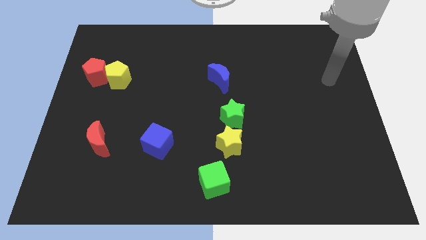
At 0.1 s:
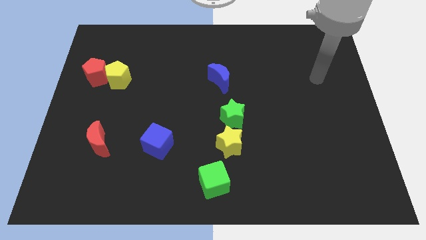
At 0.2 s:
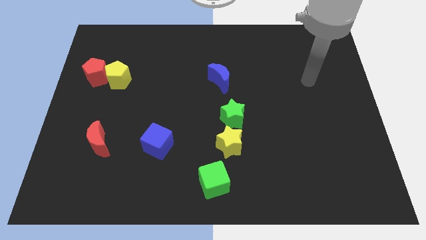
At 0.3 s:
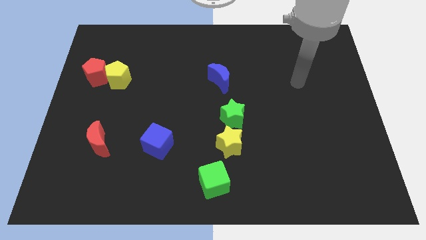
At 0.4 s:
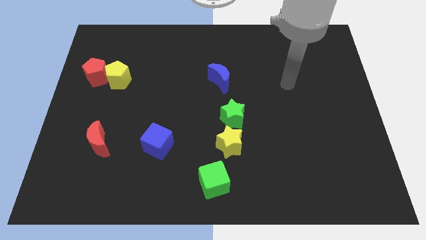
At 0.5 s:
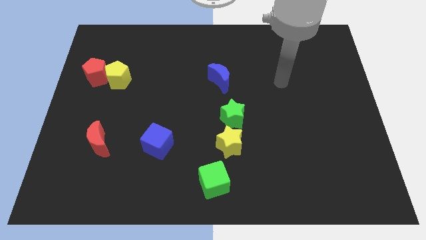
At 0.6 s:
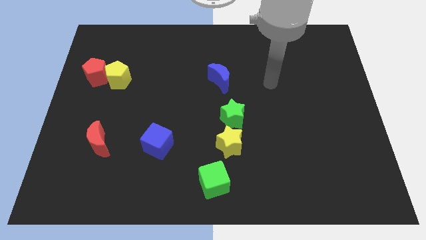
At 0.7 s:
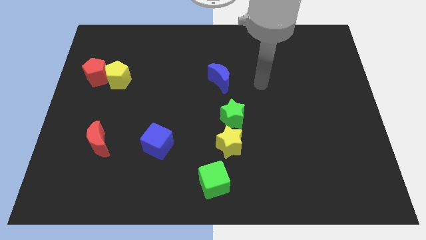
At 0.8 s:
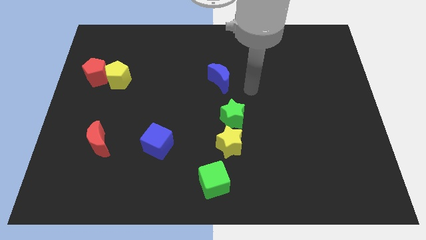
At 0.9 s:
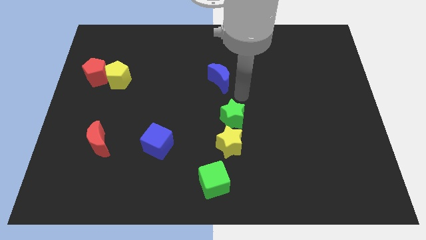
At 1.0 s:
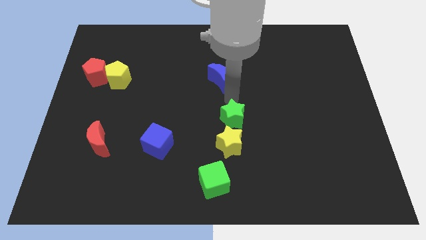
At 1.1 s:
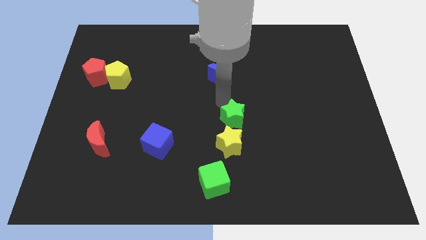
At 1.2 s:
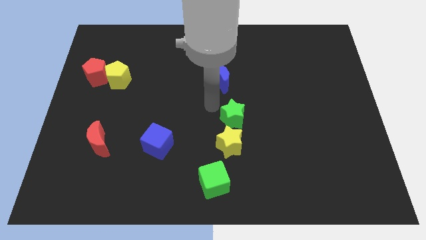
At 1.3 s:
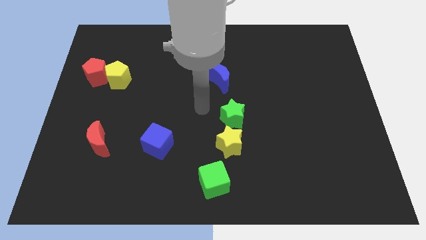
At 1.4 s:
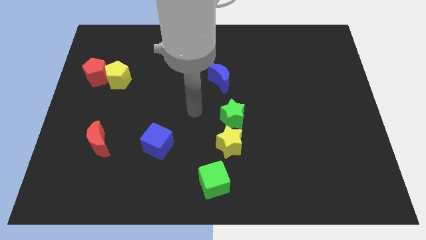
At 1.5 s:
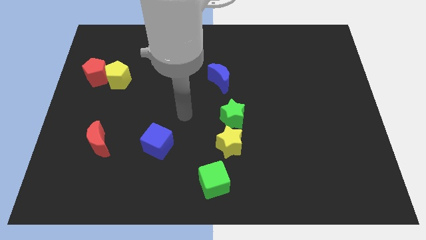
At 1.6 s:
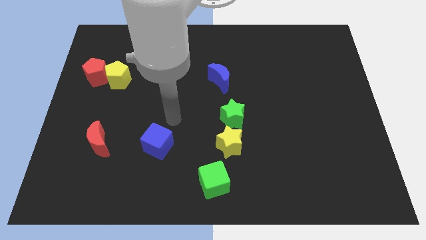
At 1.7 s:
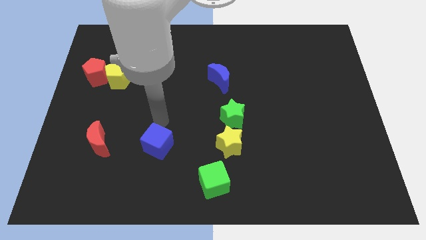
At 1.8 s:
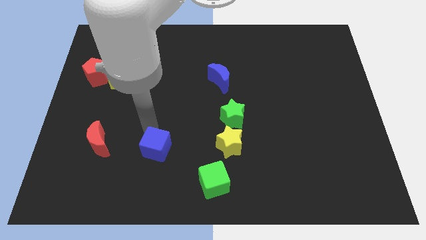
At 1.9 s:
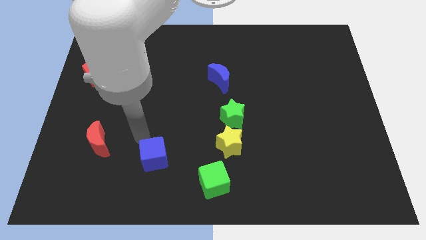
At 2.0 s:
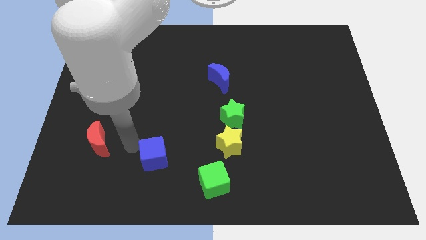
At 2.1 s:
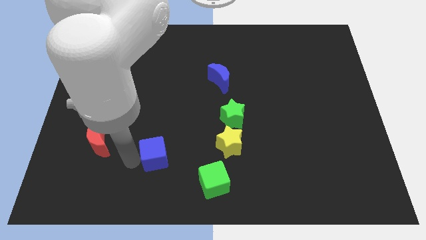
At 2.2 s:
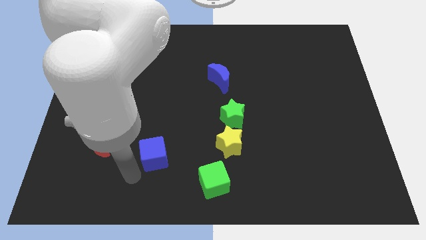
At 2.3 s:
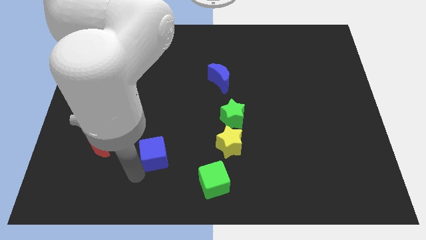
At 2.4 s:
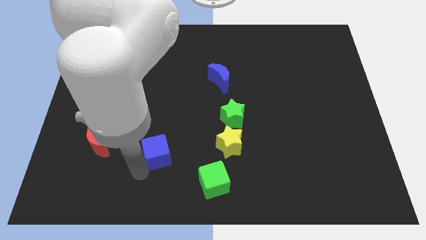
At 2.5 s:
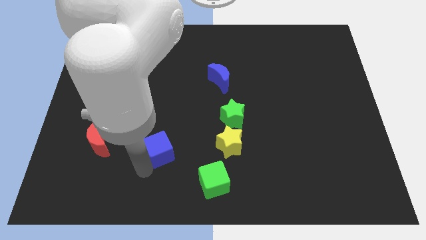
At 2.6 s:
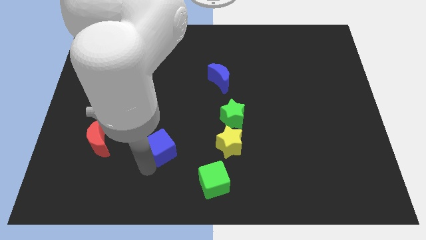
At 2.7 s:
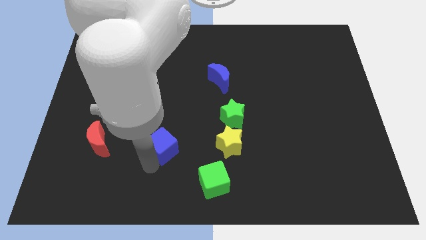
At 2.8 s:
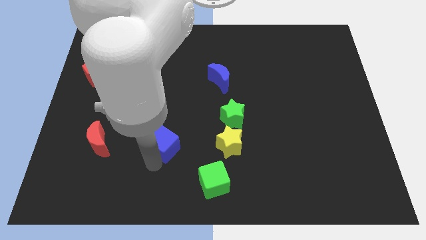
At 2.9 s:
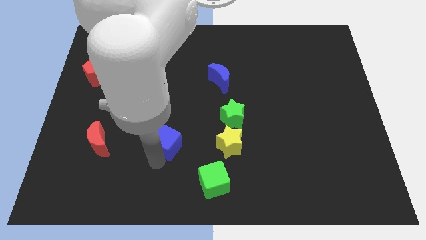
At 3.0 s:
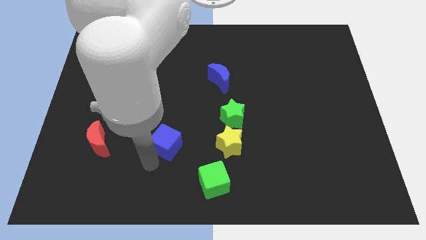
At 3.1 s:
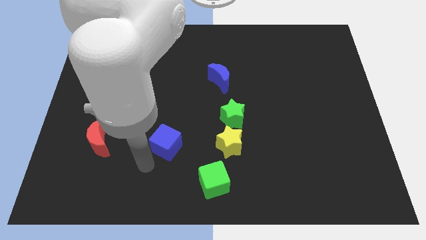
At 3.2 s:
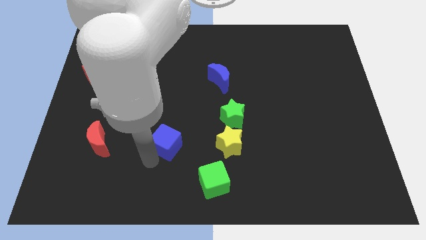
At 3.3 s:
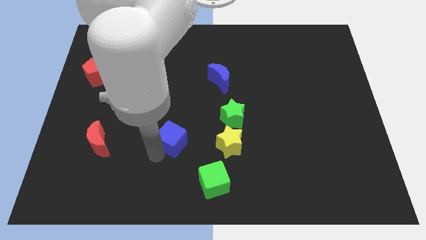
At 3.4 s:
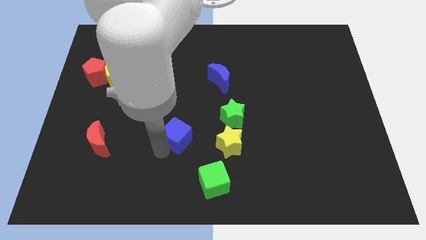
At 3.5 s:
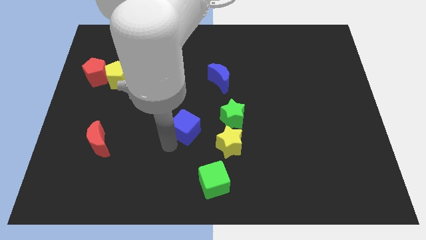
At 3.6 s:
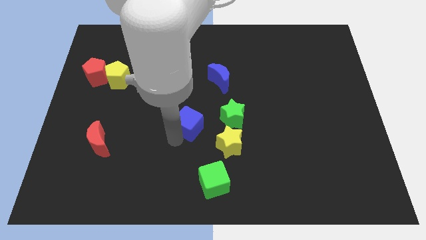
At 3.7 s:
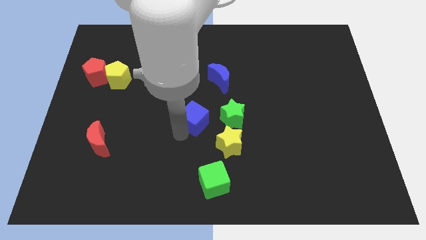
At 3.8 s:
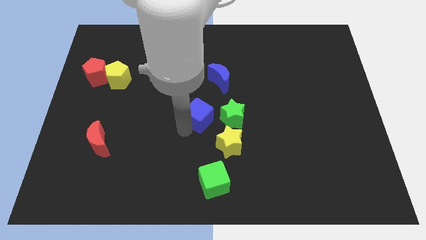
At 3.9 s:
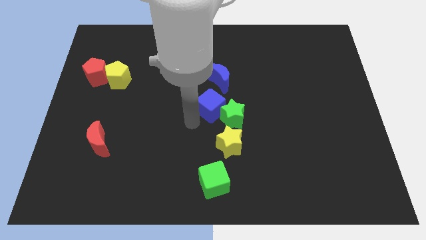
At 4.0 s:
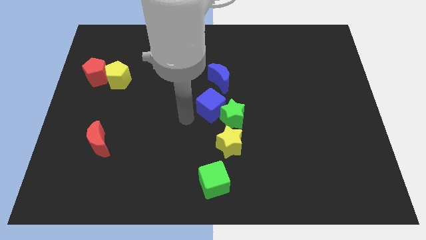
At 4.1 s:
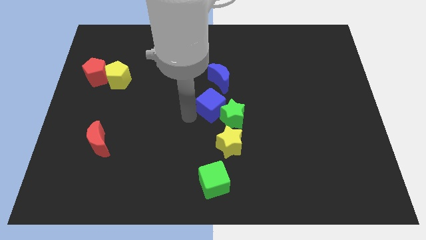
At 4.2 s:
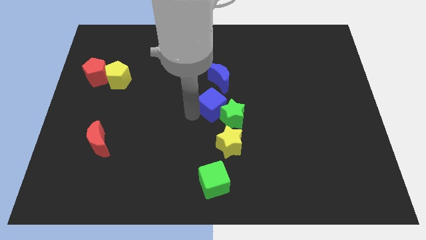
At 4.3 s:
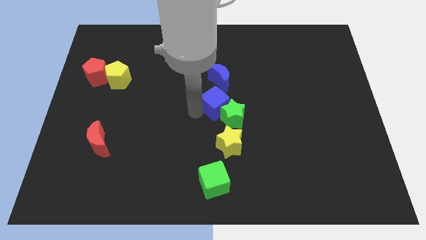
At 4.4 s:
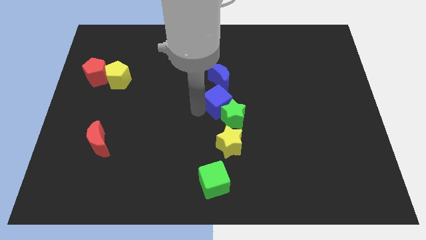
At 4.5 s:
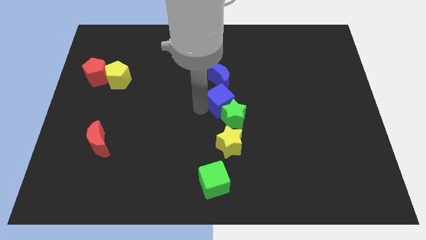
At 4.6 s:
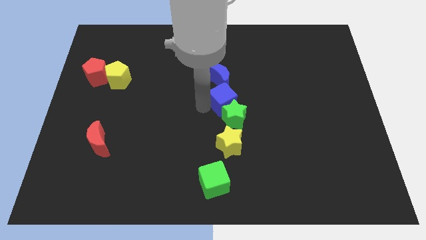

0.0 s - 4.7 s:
move the blue cube diagonally down and to the right of the blue moon

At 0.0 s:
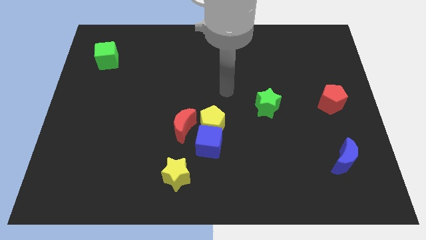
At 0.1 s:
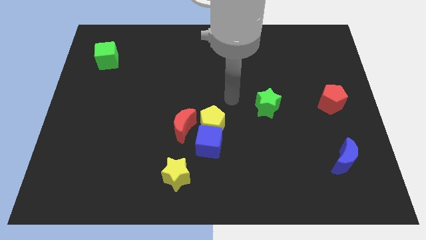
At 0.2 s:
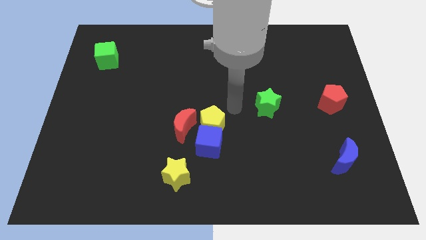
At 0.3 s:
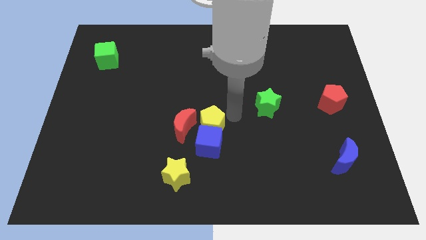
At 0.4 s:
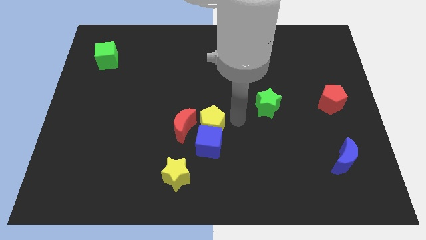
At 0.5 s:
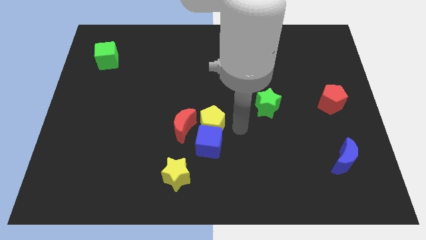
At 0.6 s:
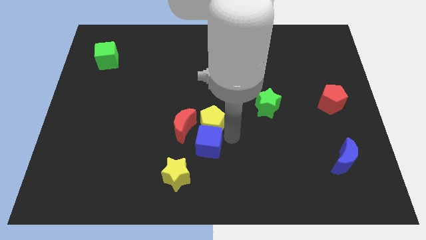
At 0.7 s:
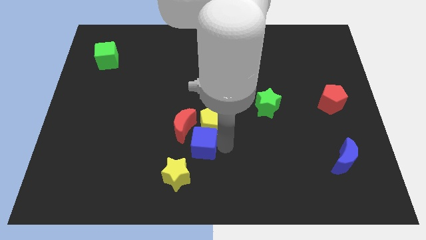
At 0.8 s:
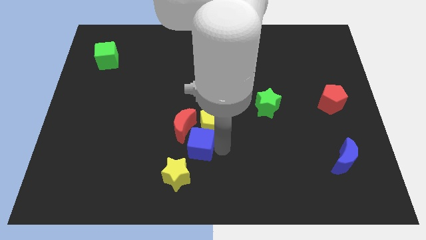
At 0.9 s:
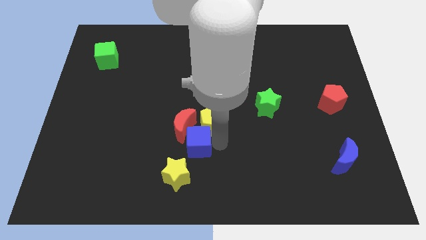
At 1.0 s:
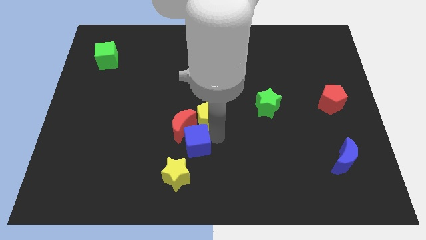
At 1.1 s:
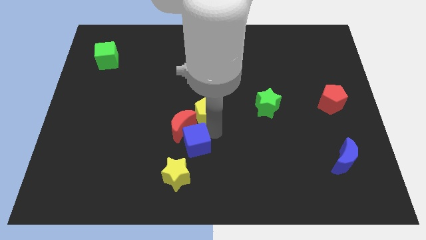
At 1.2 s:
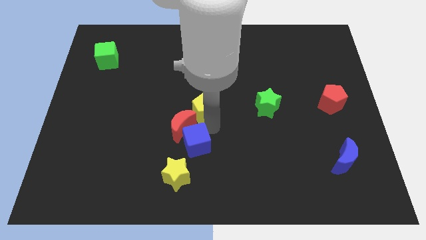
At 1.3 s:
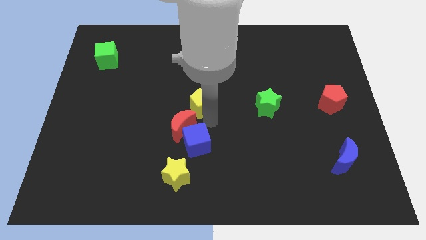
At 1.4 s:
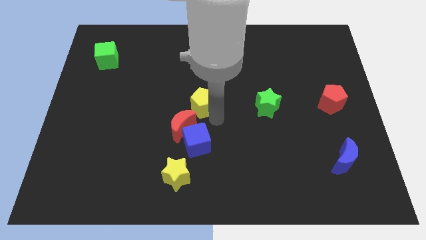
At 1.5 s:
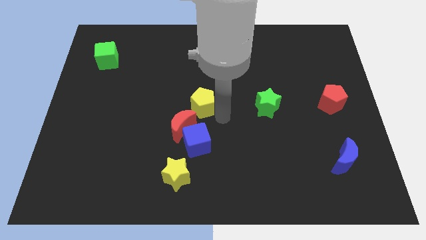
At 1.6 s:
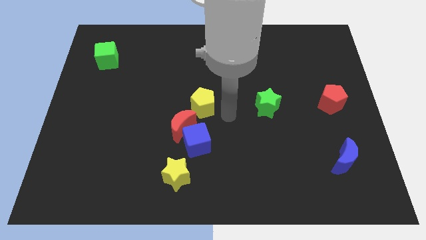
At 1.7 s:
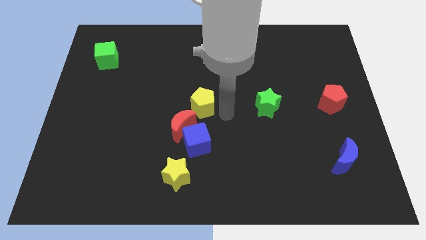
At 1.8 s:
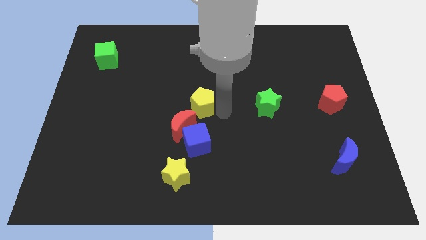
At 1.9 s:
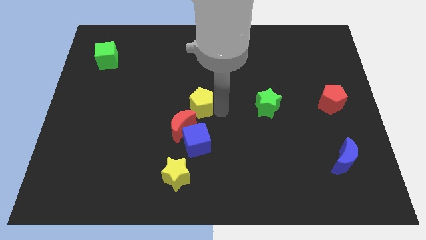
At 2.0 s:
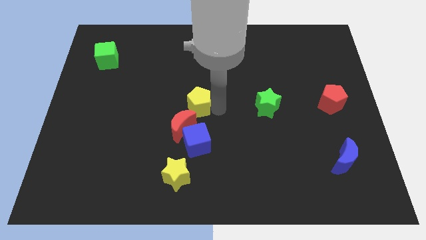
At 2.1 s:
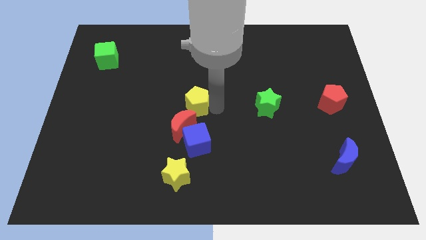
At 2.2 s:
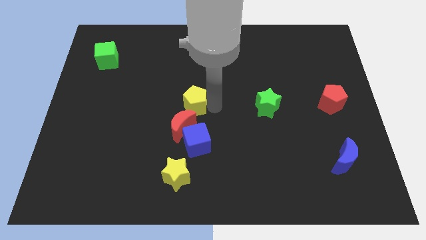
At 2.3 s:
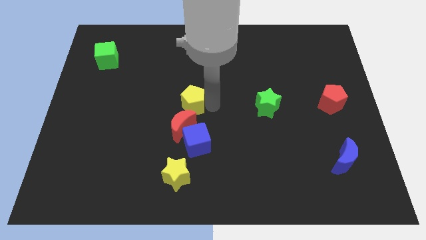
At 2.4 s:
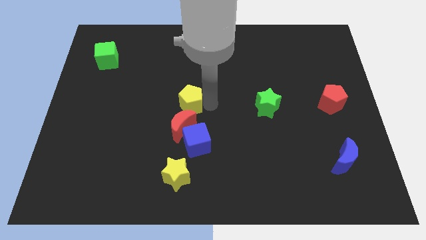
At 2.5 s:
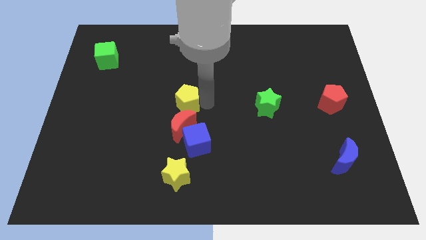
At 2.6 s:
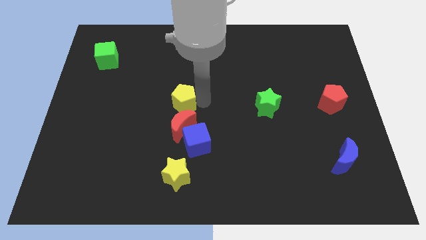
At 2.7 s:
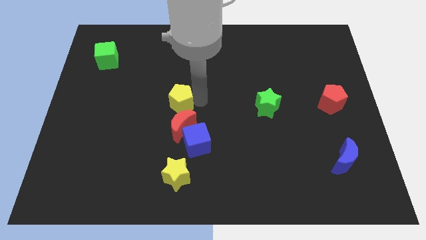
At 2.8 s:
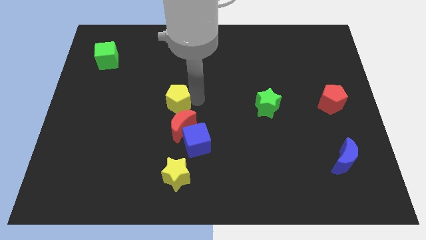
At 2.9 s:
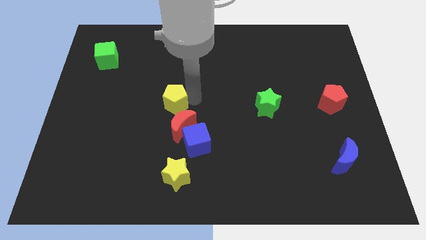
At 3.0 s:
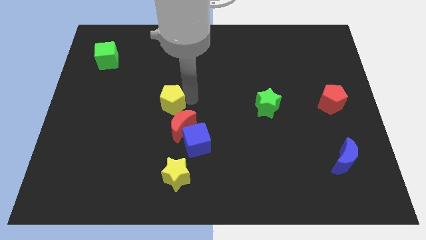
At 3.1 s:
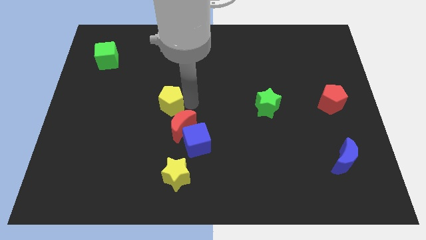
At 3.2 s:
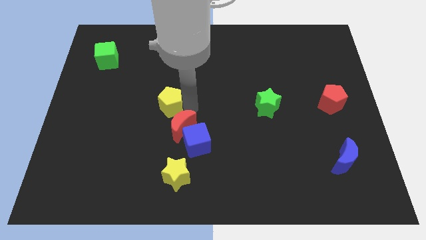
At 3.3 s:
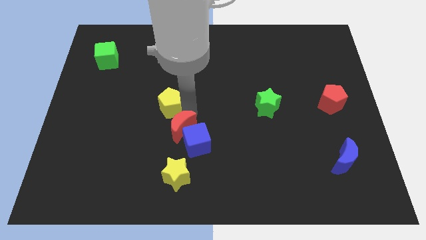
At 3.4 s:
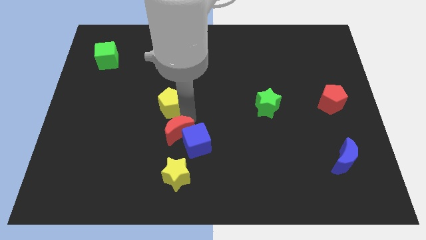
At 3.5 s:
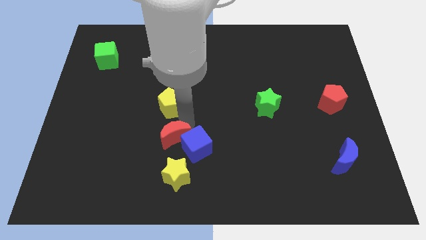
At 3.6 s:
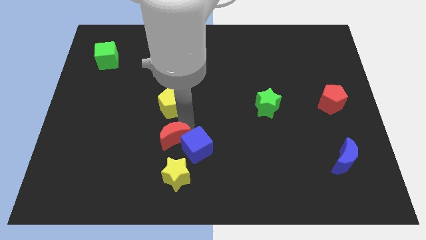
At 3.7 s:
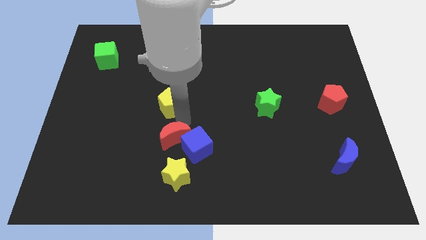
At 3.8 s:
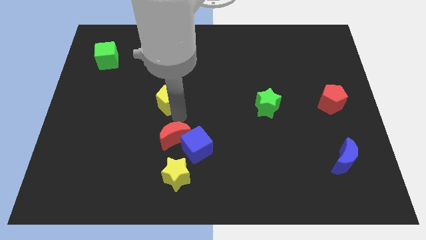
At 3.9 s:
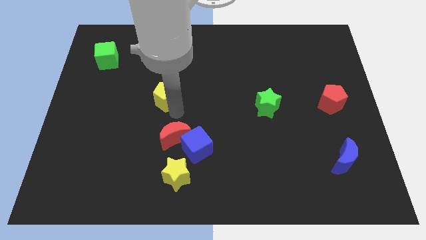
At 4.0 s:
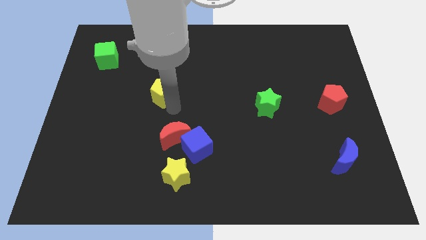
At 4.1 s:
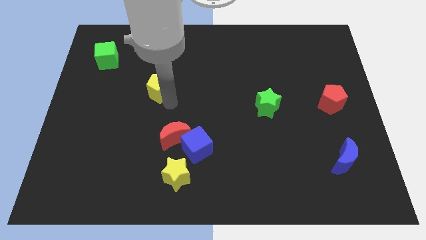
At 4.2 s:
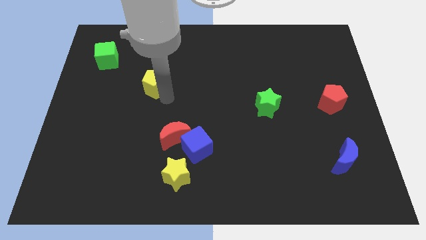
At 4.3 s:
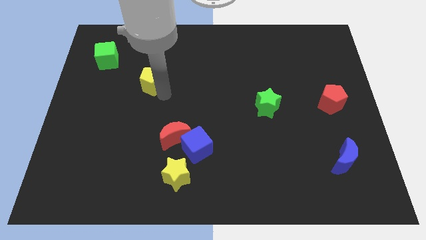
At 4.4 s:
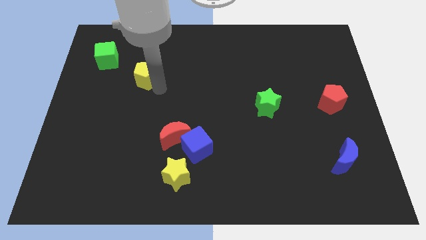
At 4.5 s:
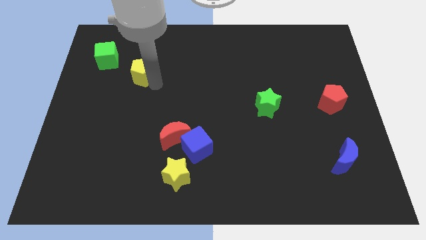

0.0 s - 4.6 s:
push the yellow pentagon diagonally down and to the right of the green cube
